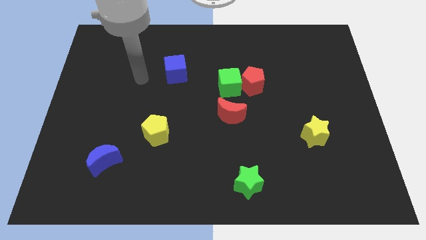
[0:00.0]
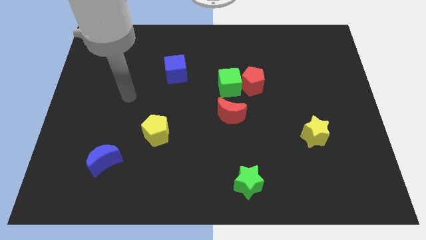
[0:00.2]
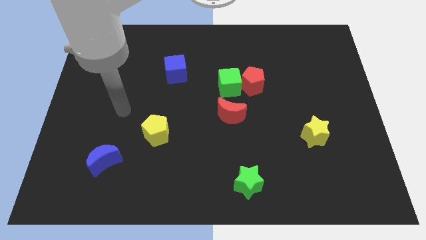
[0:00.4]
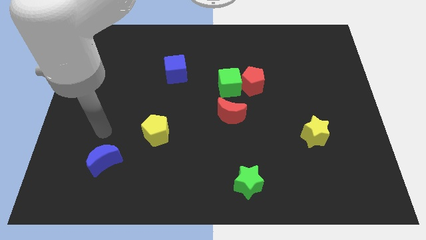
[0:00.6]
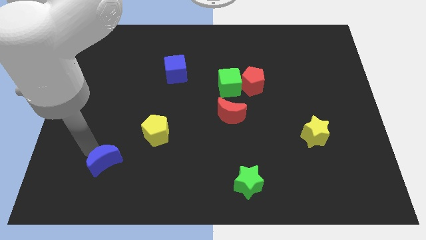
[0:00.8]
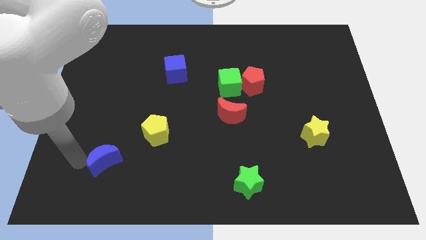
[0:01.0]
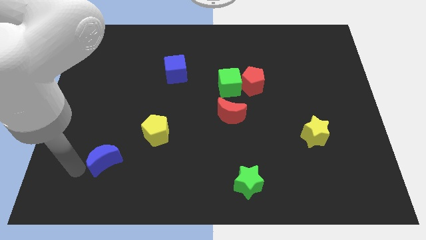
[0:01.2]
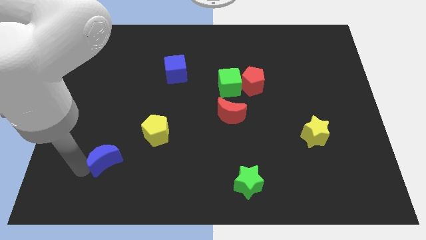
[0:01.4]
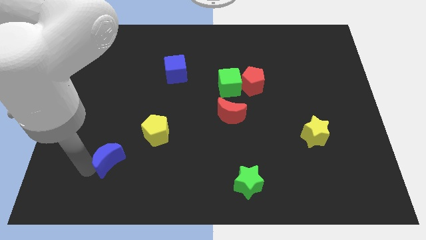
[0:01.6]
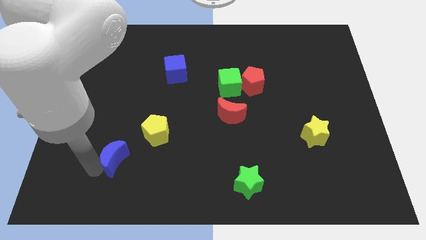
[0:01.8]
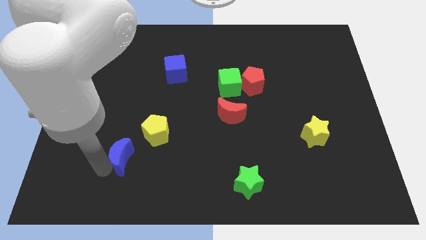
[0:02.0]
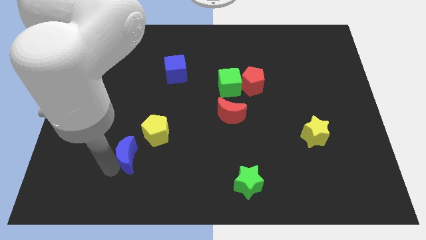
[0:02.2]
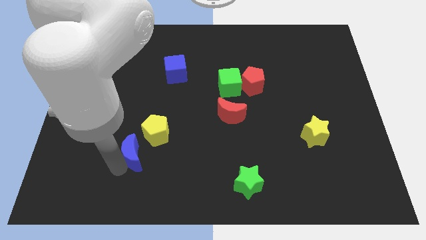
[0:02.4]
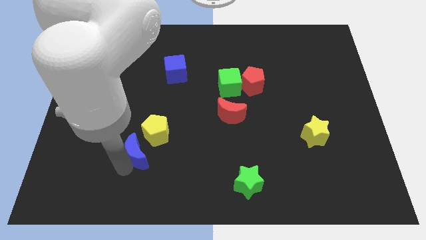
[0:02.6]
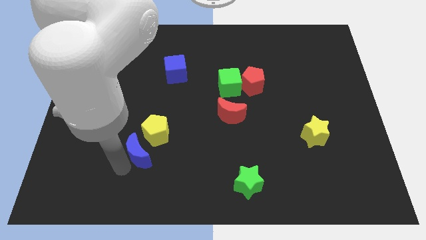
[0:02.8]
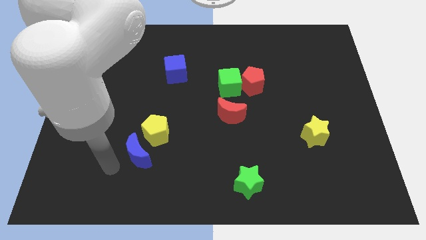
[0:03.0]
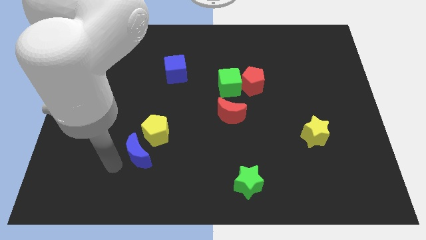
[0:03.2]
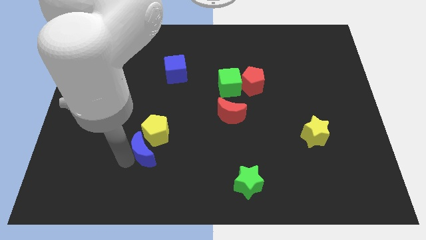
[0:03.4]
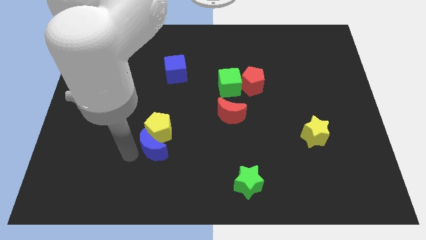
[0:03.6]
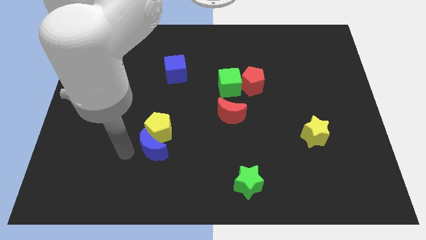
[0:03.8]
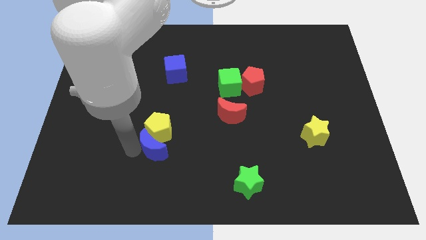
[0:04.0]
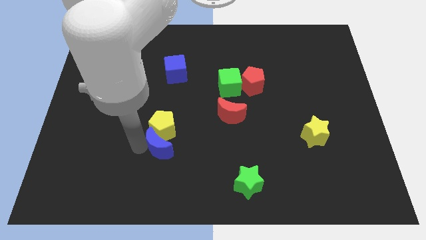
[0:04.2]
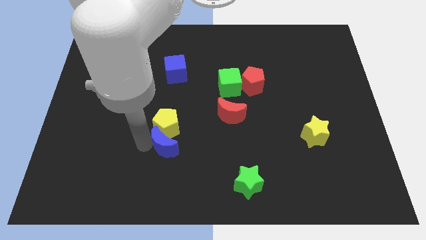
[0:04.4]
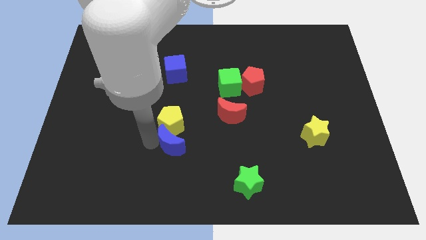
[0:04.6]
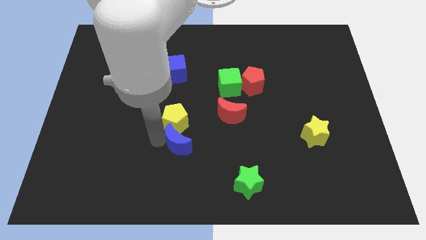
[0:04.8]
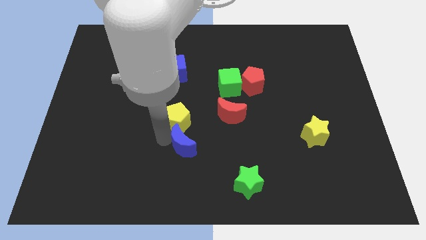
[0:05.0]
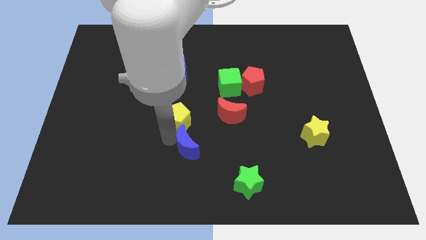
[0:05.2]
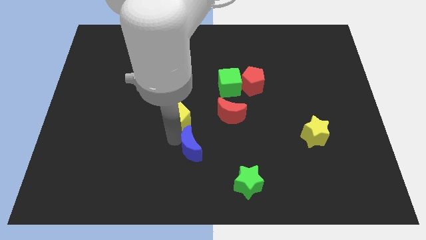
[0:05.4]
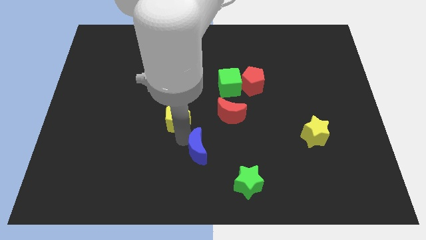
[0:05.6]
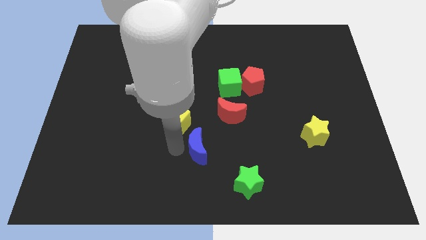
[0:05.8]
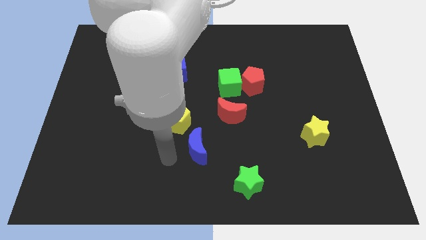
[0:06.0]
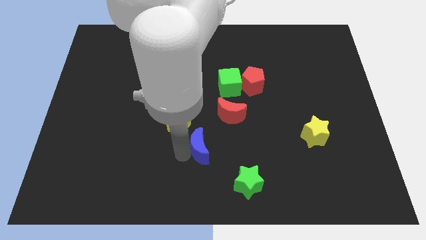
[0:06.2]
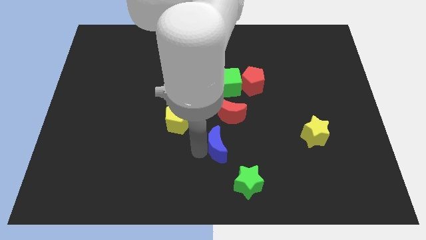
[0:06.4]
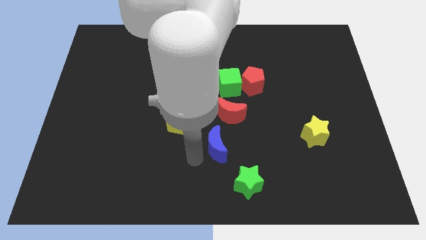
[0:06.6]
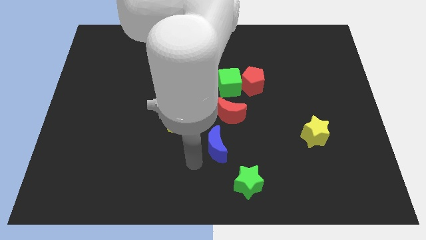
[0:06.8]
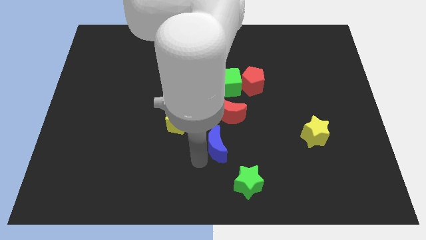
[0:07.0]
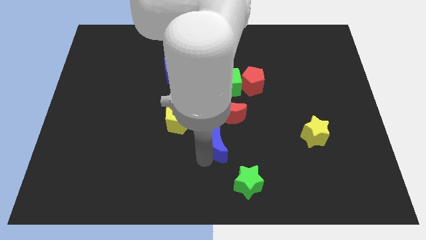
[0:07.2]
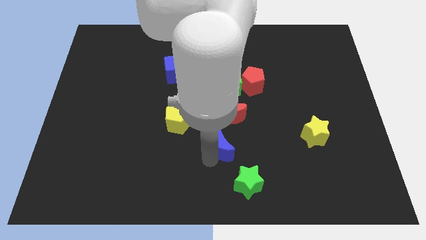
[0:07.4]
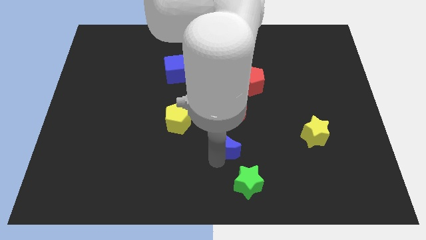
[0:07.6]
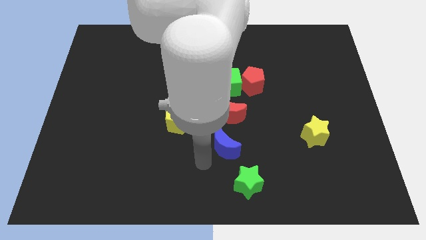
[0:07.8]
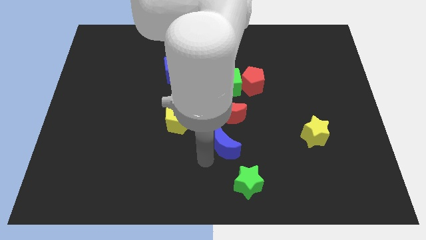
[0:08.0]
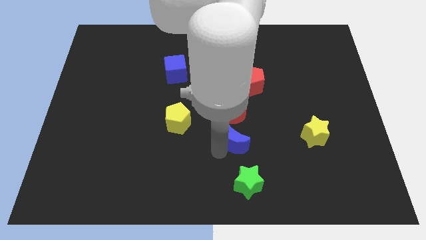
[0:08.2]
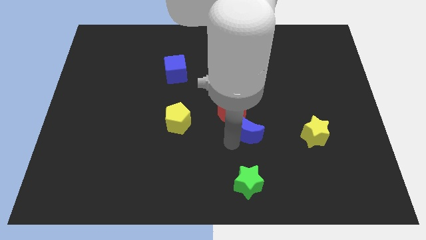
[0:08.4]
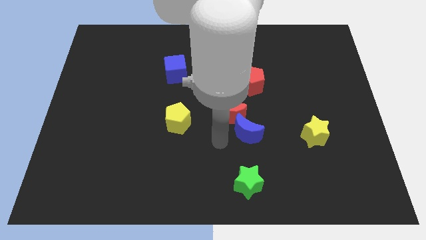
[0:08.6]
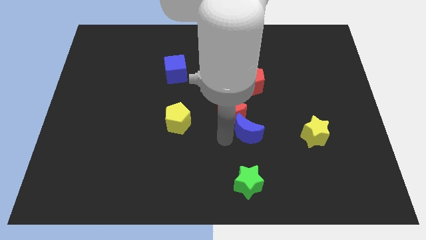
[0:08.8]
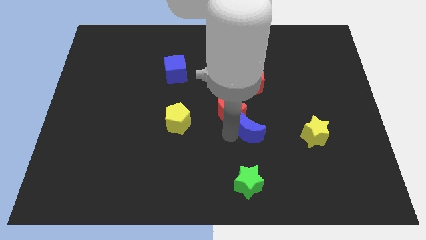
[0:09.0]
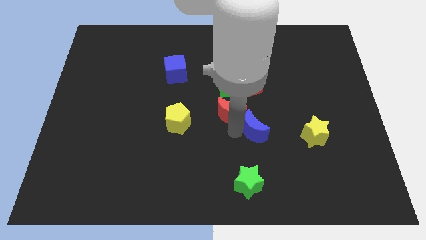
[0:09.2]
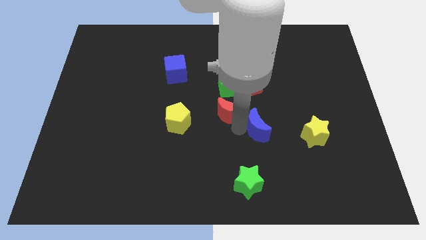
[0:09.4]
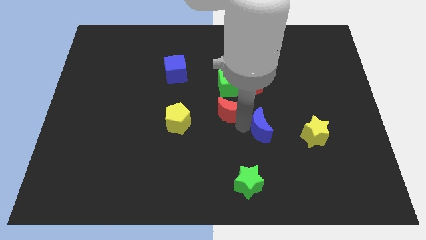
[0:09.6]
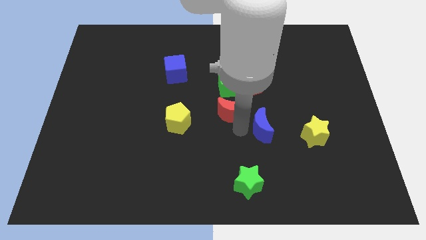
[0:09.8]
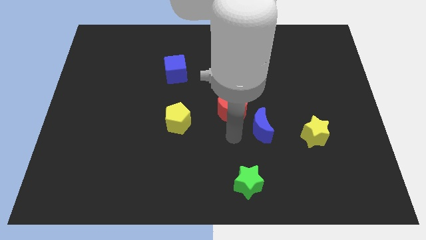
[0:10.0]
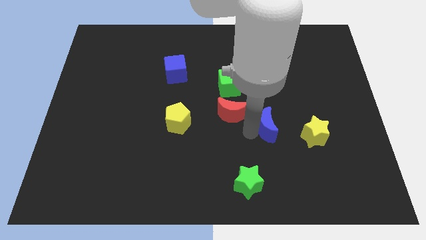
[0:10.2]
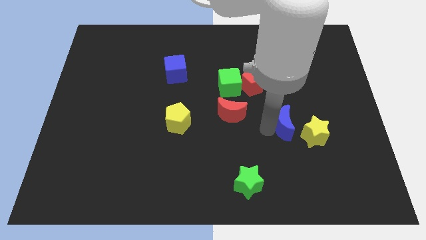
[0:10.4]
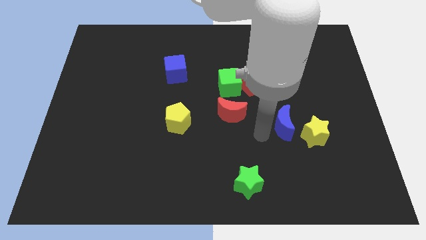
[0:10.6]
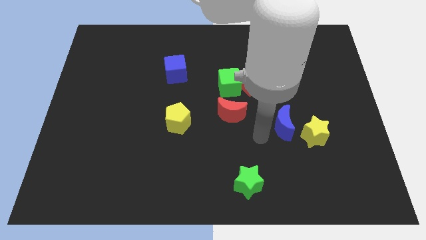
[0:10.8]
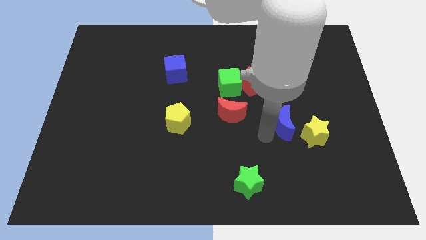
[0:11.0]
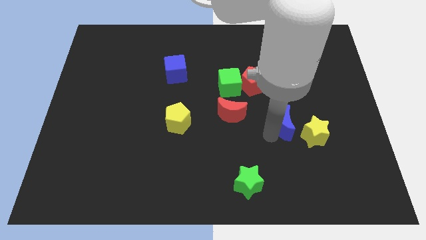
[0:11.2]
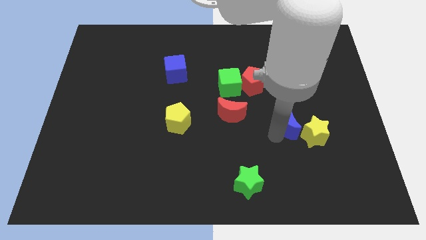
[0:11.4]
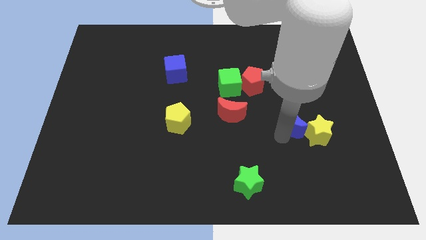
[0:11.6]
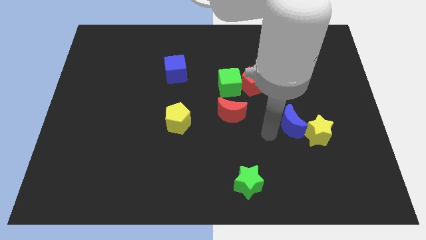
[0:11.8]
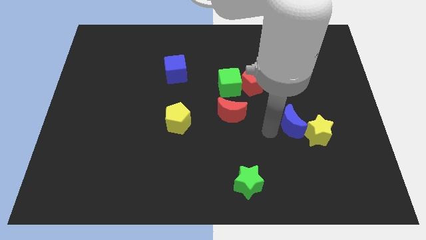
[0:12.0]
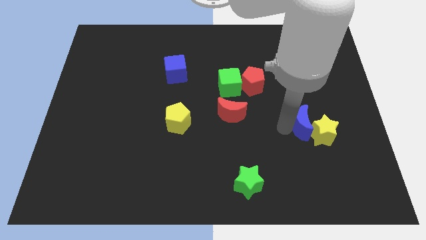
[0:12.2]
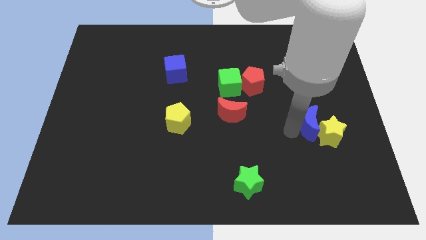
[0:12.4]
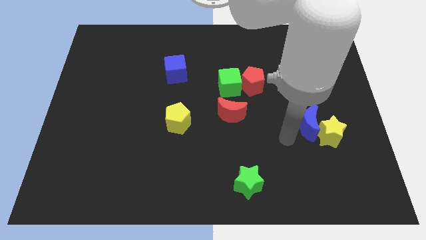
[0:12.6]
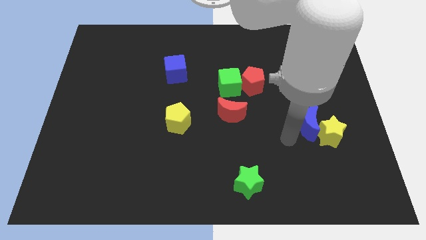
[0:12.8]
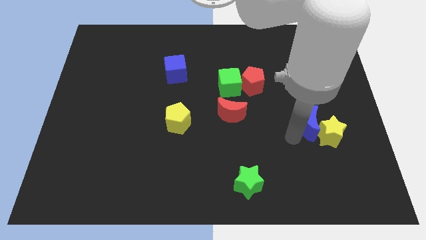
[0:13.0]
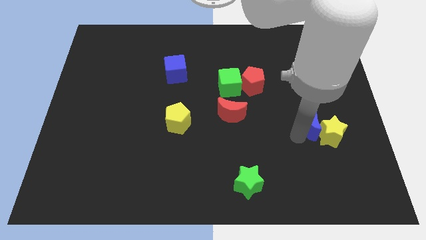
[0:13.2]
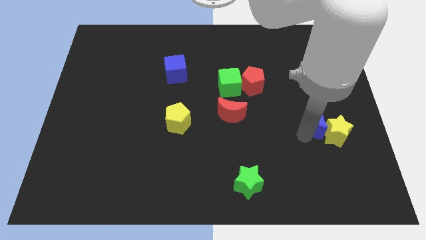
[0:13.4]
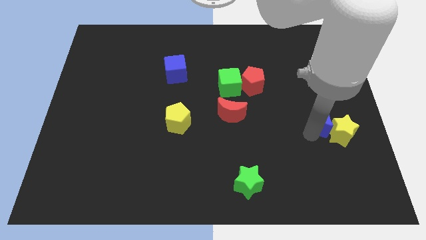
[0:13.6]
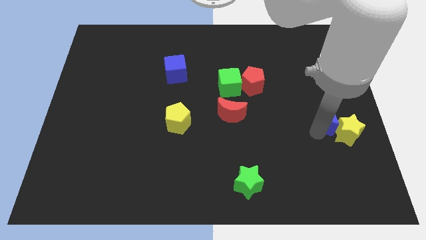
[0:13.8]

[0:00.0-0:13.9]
move the blue moon to the right side

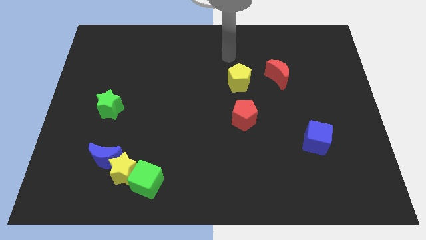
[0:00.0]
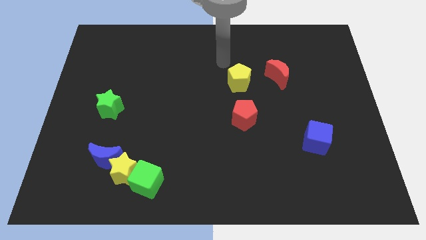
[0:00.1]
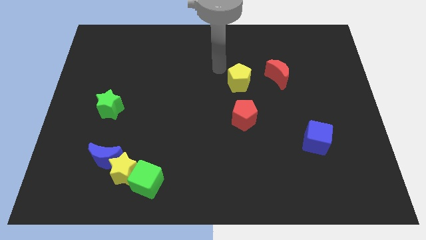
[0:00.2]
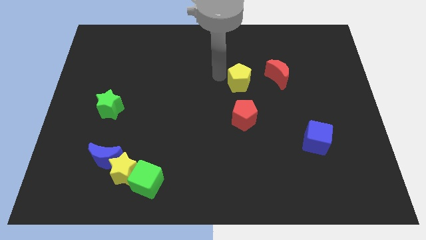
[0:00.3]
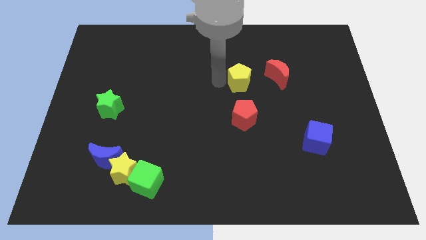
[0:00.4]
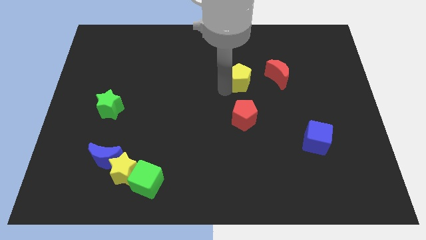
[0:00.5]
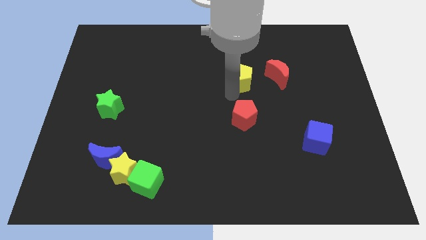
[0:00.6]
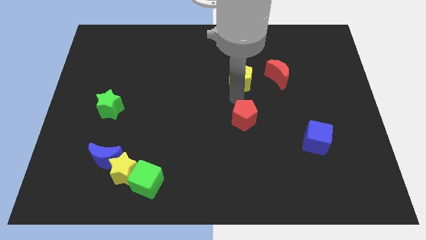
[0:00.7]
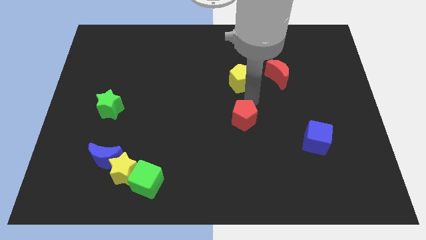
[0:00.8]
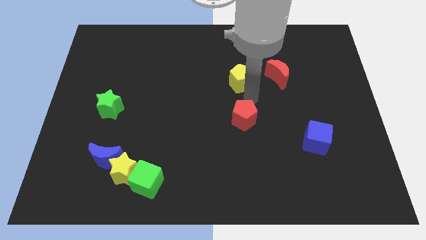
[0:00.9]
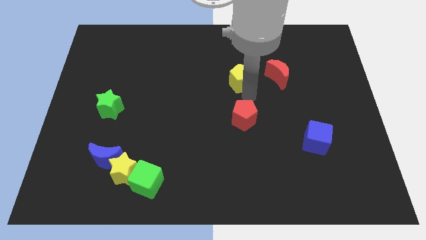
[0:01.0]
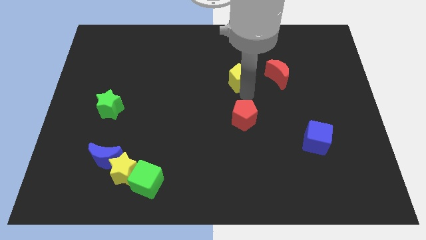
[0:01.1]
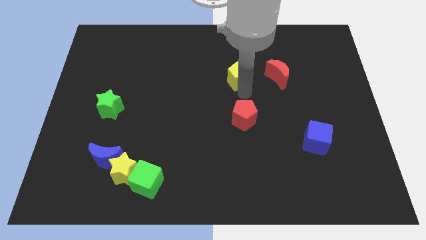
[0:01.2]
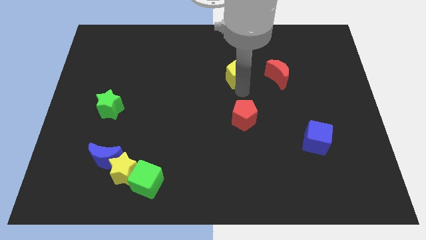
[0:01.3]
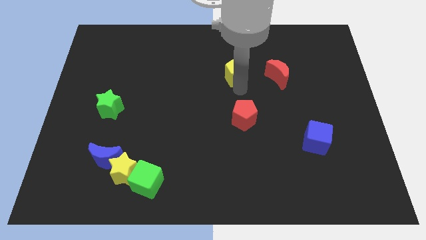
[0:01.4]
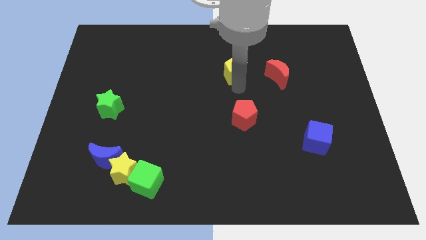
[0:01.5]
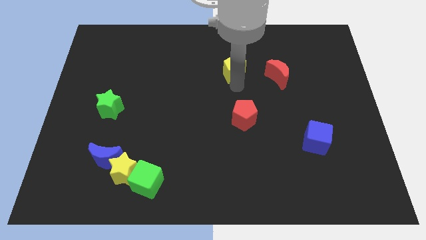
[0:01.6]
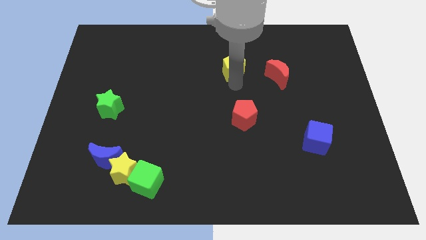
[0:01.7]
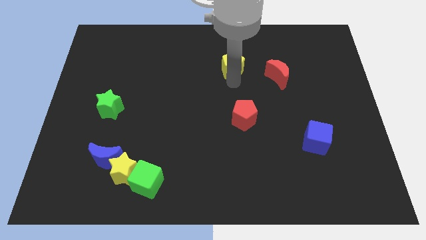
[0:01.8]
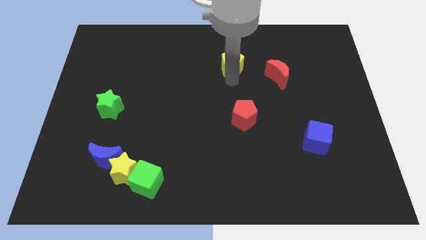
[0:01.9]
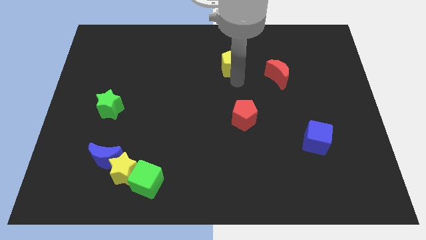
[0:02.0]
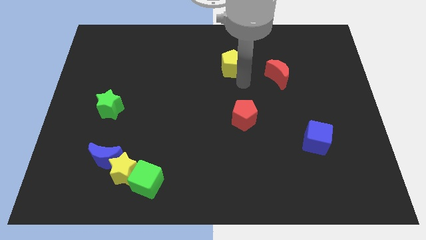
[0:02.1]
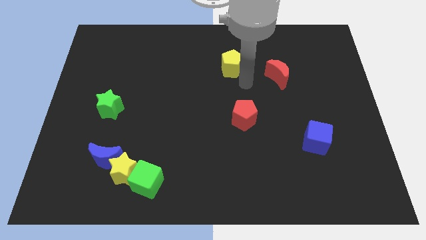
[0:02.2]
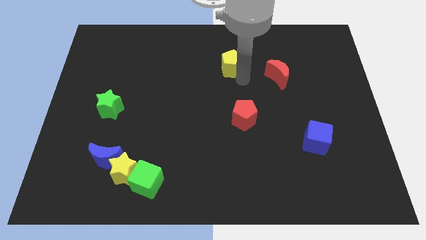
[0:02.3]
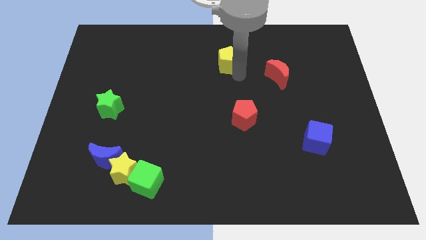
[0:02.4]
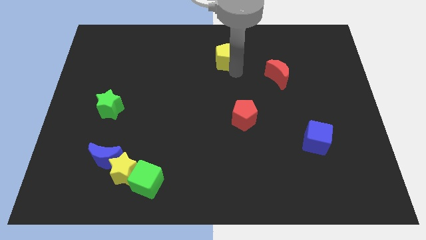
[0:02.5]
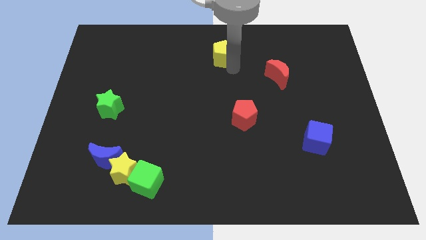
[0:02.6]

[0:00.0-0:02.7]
move the yellow pentagon to the towards your base
